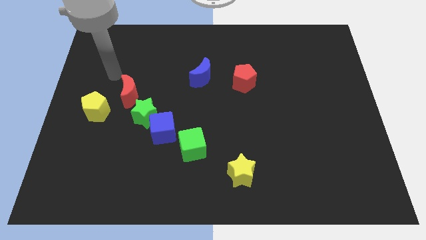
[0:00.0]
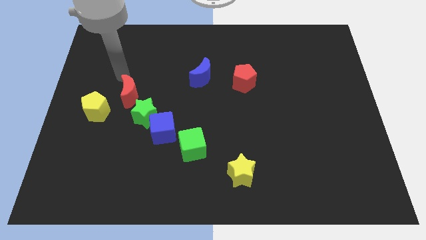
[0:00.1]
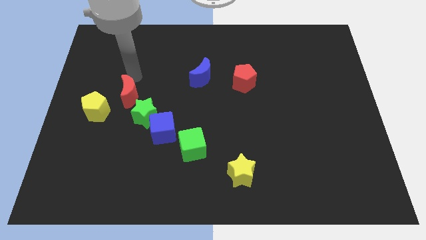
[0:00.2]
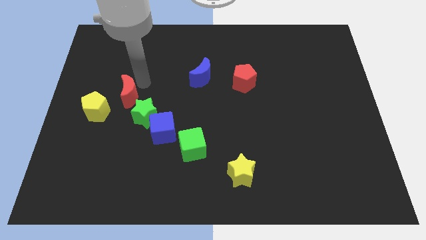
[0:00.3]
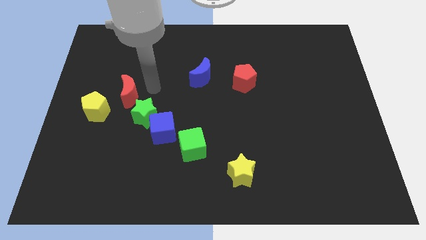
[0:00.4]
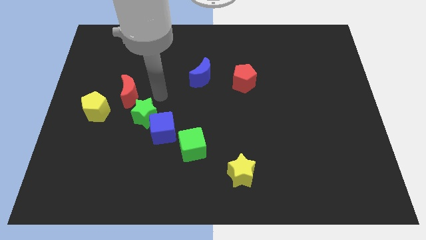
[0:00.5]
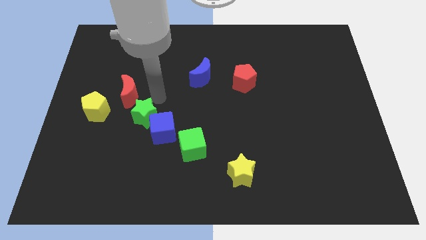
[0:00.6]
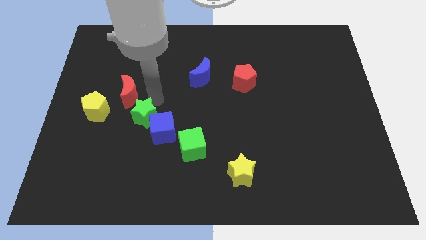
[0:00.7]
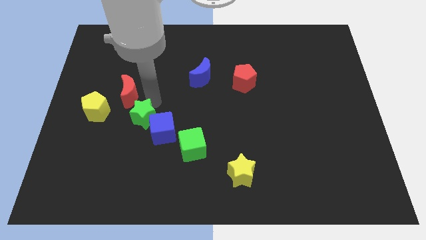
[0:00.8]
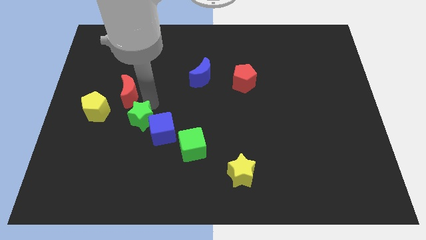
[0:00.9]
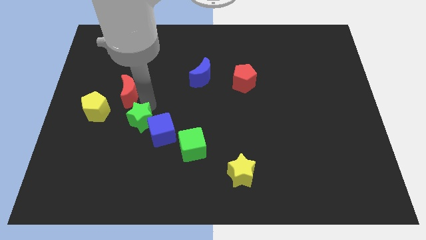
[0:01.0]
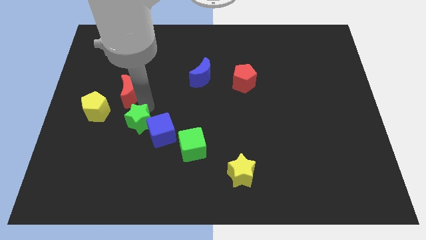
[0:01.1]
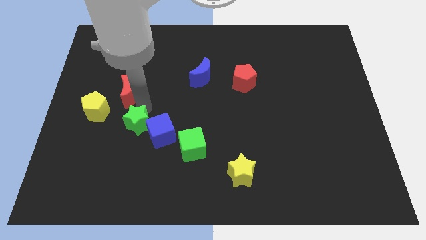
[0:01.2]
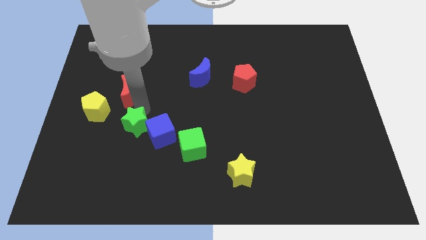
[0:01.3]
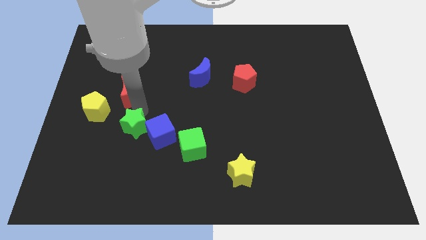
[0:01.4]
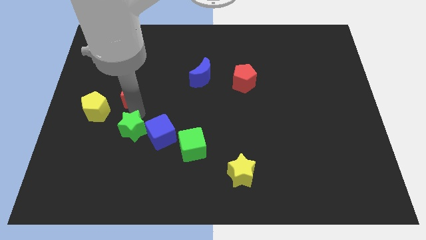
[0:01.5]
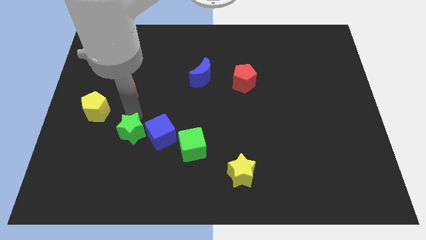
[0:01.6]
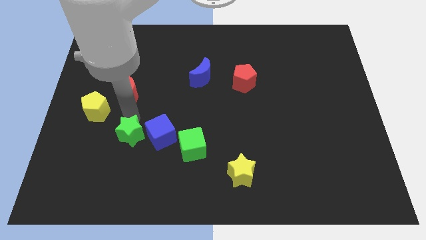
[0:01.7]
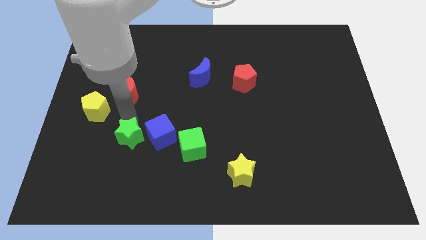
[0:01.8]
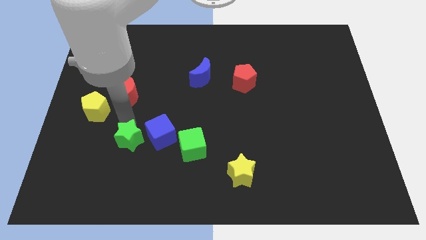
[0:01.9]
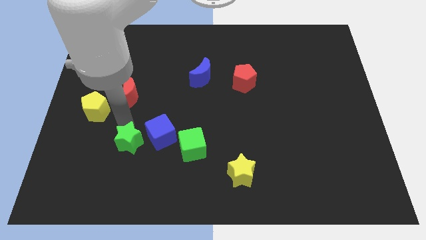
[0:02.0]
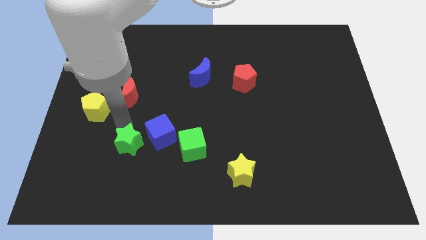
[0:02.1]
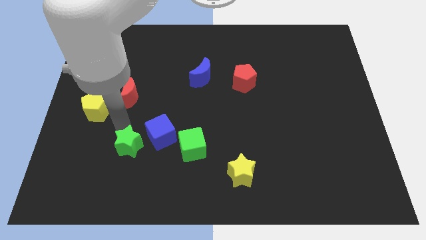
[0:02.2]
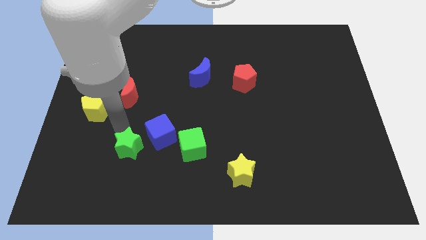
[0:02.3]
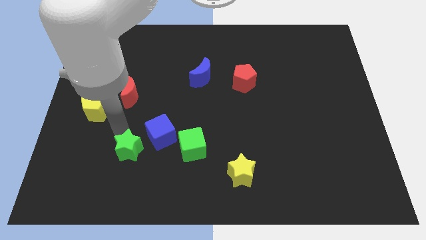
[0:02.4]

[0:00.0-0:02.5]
separate the green star from the blue cube and red moon

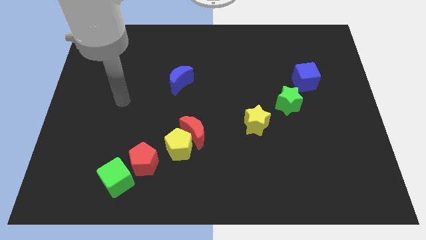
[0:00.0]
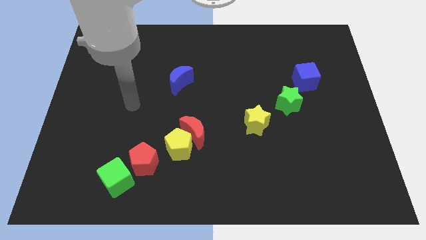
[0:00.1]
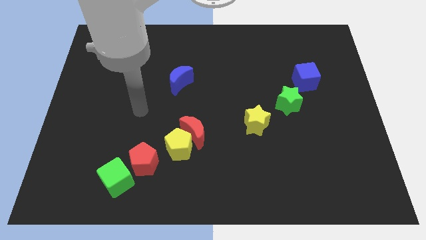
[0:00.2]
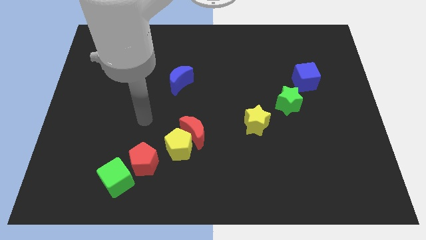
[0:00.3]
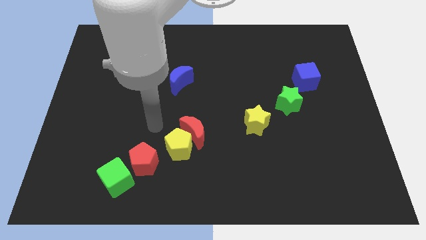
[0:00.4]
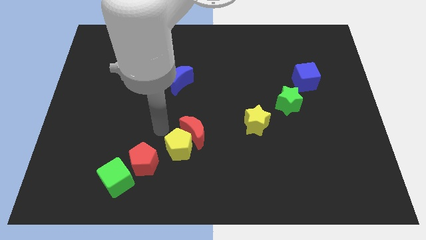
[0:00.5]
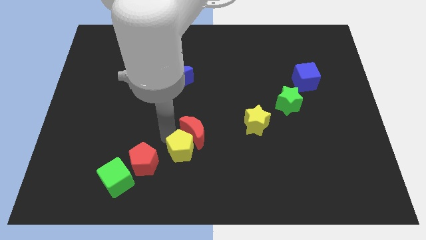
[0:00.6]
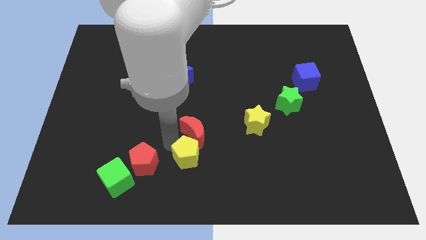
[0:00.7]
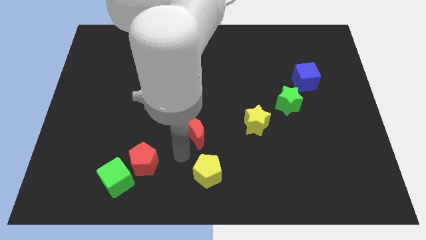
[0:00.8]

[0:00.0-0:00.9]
separate the red moon from the yellow pentagon

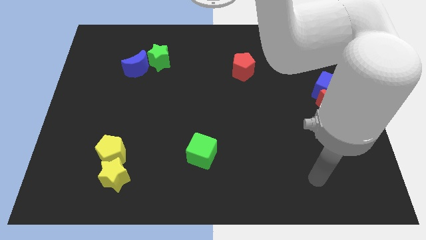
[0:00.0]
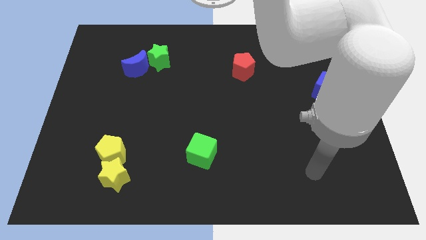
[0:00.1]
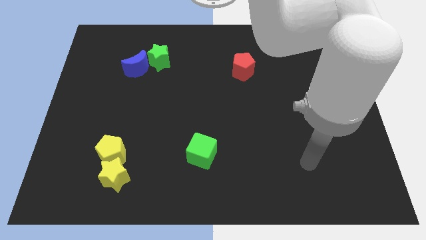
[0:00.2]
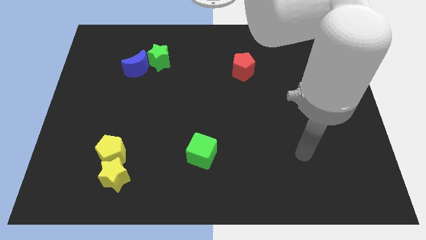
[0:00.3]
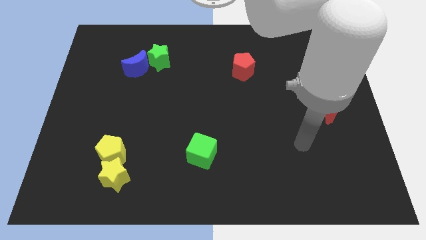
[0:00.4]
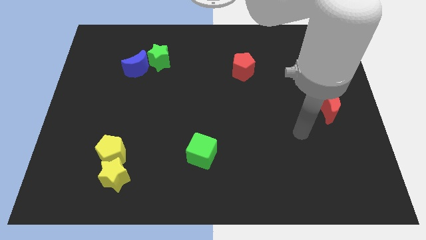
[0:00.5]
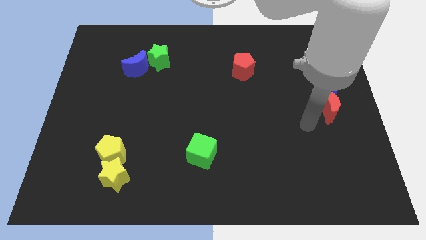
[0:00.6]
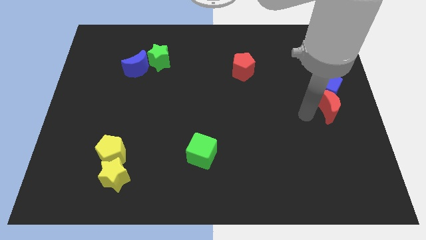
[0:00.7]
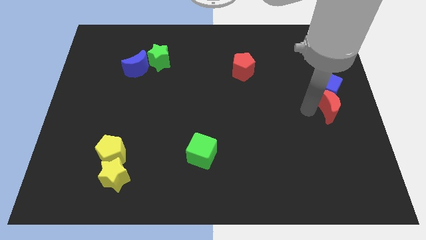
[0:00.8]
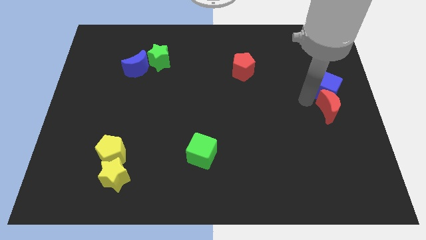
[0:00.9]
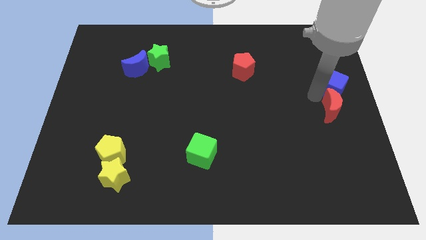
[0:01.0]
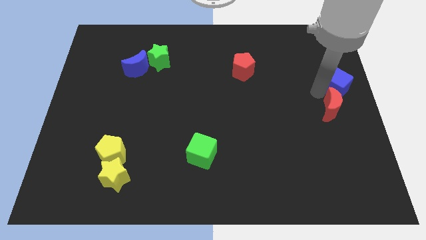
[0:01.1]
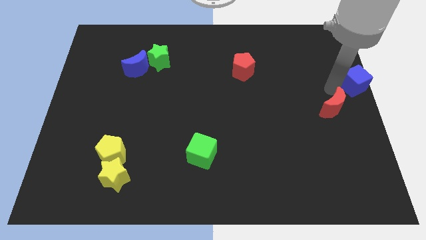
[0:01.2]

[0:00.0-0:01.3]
move the red moon away from the blue cube

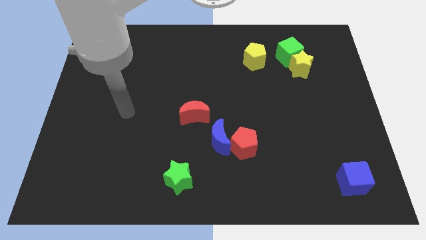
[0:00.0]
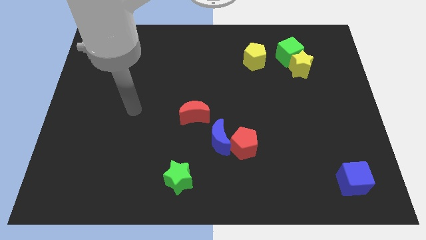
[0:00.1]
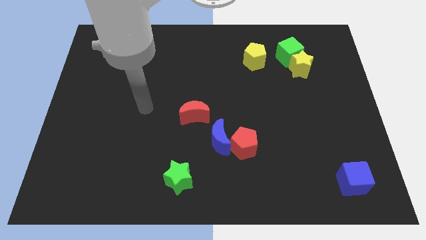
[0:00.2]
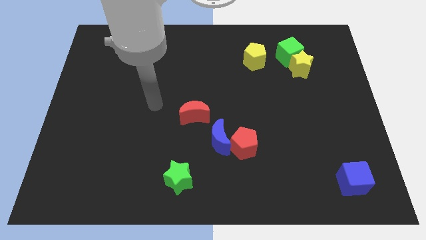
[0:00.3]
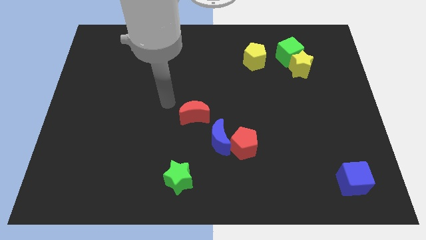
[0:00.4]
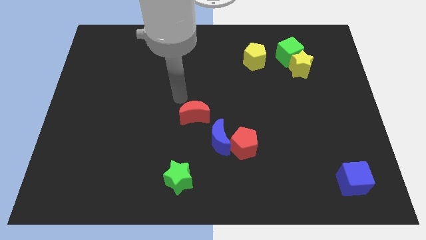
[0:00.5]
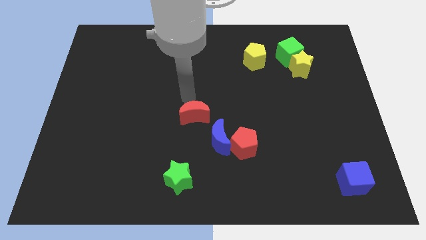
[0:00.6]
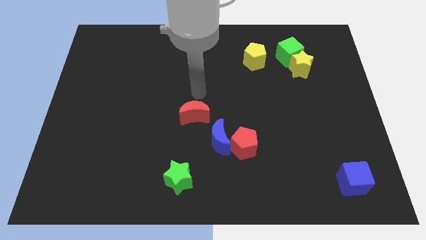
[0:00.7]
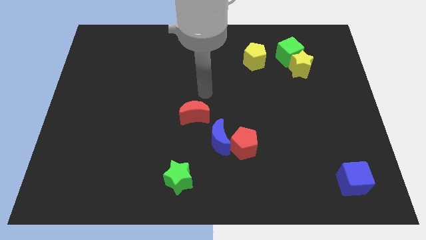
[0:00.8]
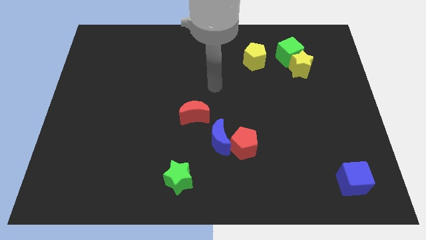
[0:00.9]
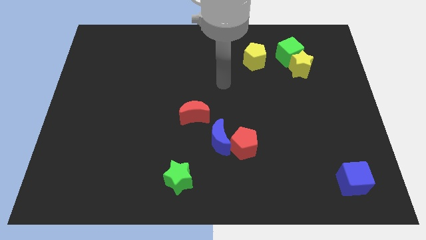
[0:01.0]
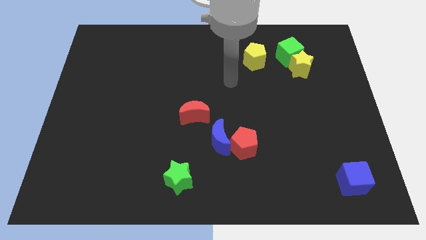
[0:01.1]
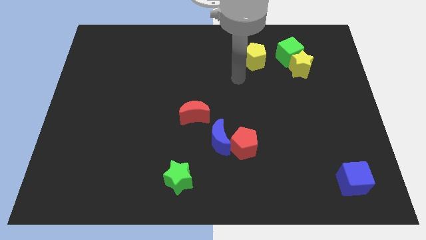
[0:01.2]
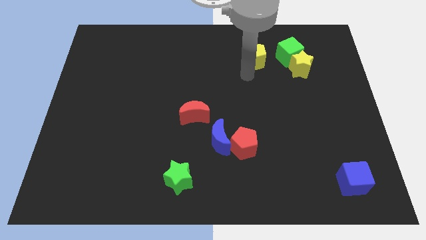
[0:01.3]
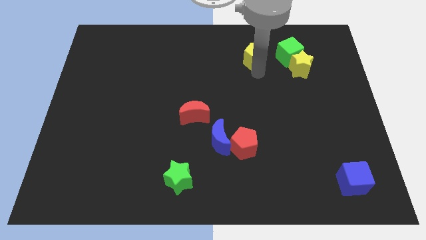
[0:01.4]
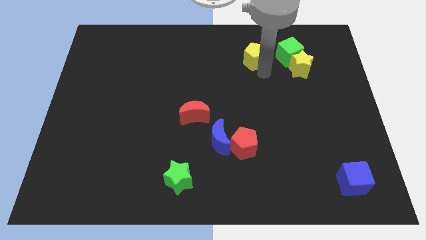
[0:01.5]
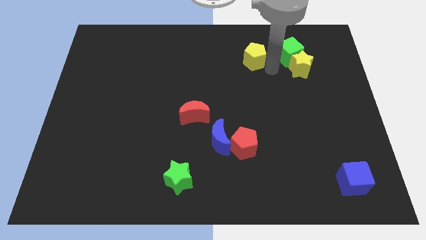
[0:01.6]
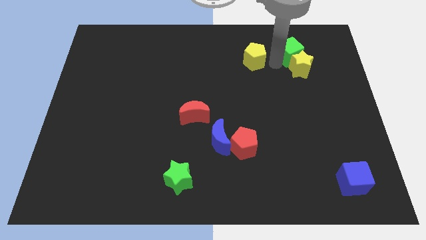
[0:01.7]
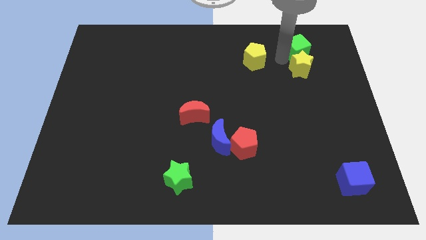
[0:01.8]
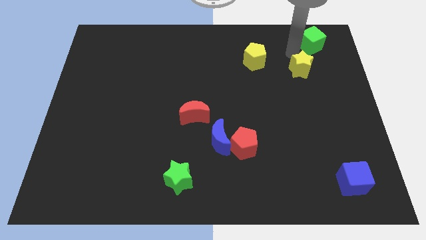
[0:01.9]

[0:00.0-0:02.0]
pull the yellow star apart from the green cube

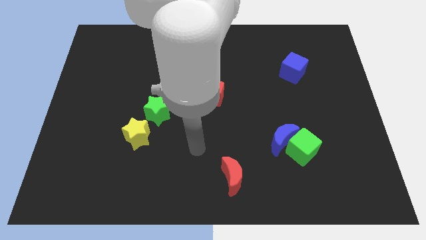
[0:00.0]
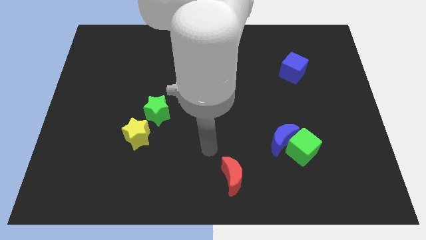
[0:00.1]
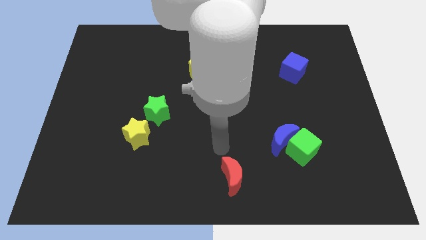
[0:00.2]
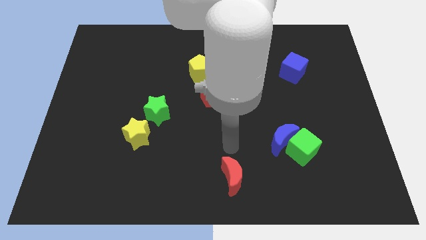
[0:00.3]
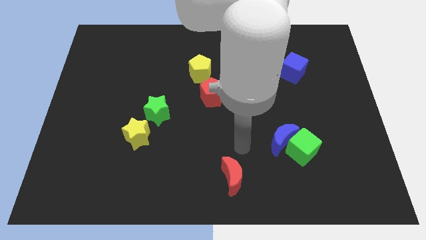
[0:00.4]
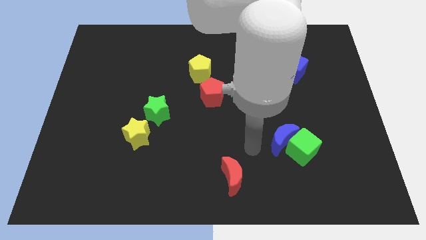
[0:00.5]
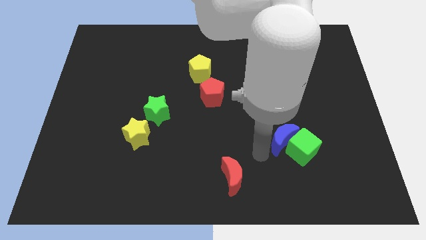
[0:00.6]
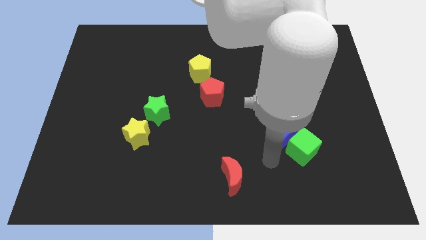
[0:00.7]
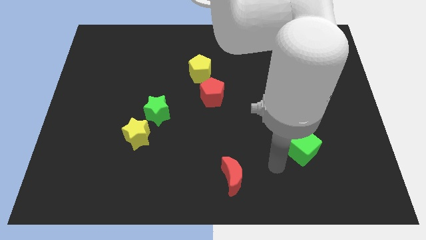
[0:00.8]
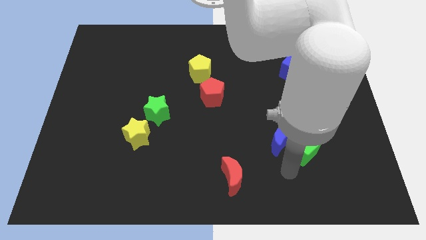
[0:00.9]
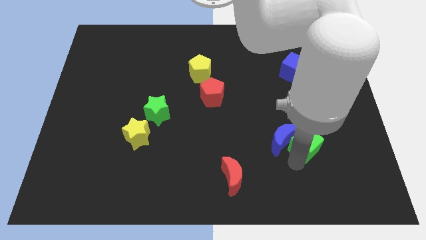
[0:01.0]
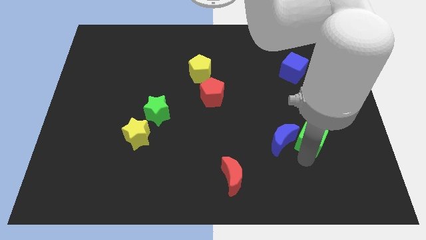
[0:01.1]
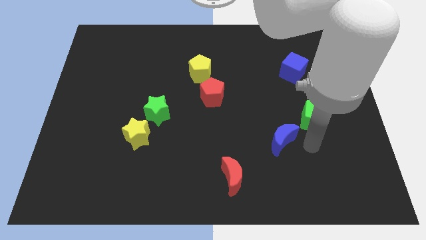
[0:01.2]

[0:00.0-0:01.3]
move the blue moon away from the green cube

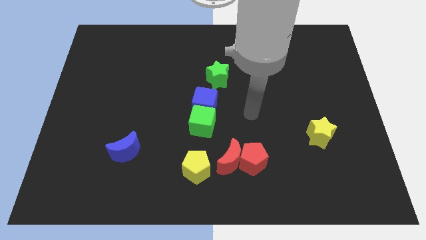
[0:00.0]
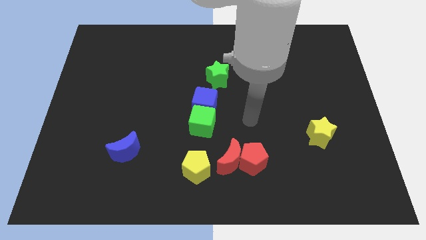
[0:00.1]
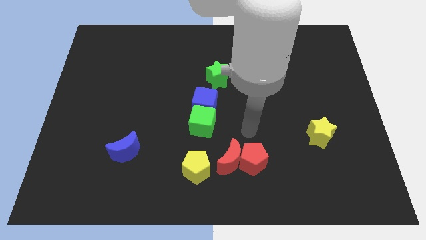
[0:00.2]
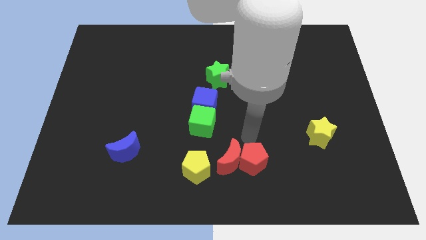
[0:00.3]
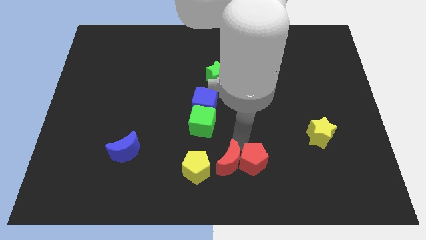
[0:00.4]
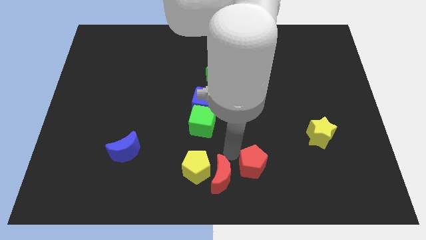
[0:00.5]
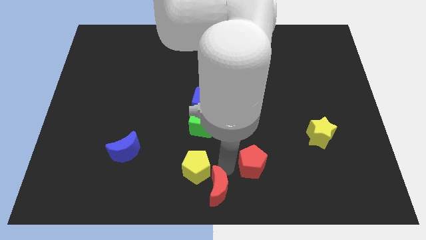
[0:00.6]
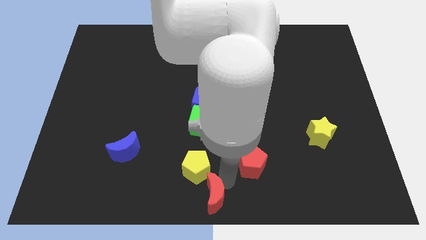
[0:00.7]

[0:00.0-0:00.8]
move the red pentagon away from the red moon

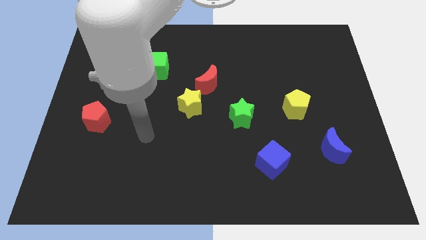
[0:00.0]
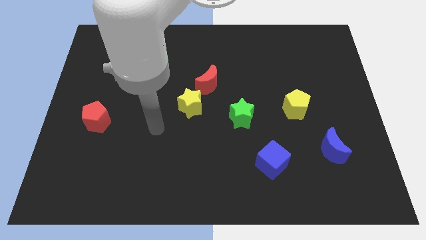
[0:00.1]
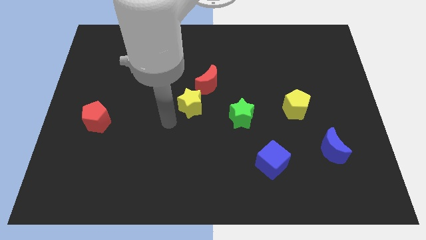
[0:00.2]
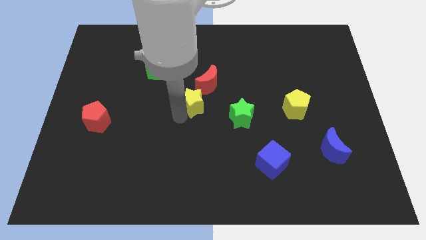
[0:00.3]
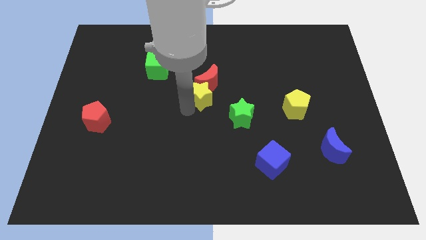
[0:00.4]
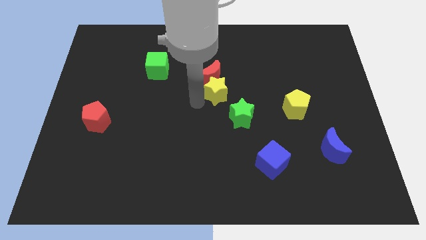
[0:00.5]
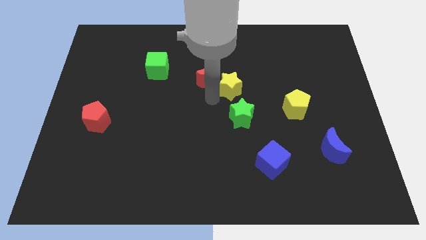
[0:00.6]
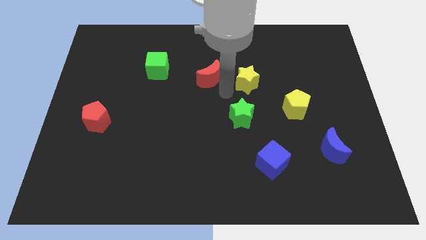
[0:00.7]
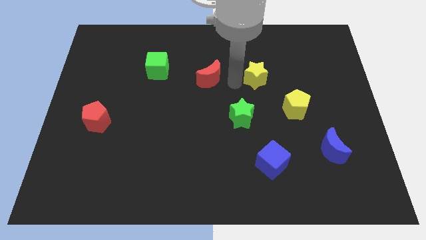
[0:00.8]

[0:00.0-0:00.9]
separate the red moon from the yellow star
